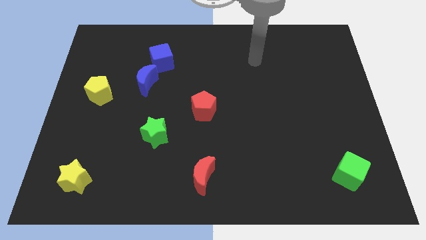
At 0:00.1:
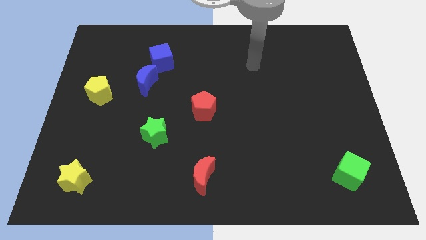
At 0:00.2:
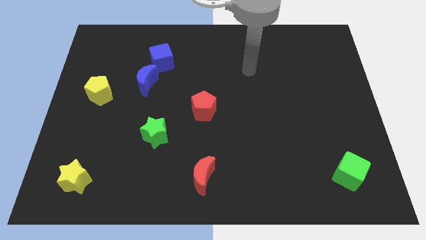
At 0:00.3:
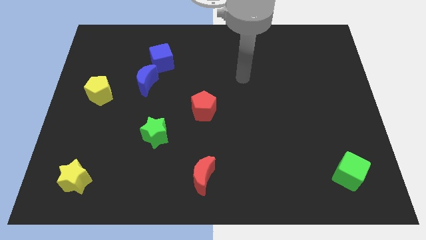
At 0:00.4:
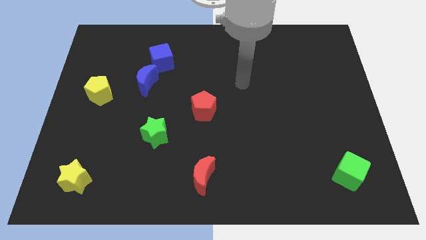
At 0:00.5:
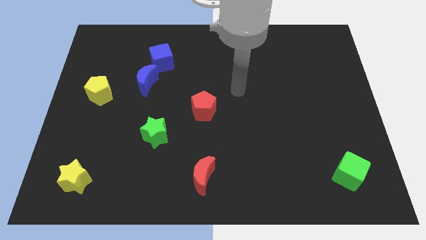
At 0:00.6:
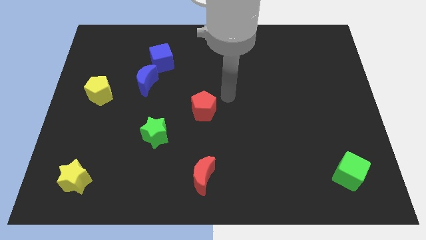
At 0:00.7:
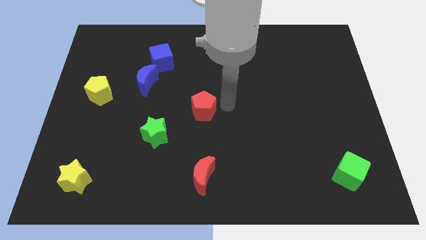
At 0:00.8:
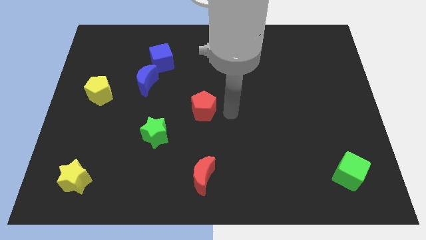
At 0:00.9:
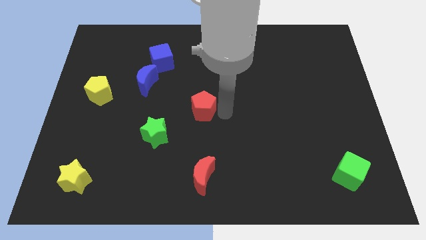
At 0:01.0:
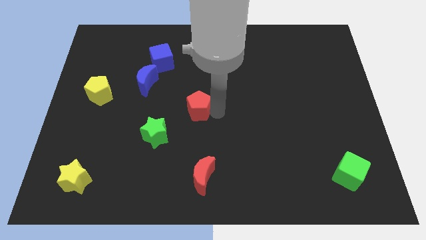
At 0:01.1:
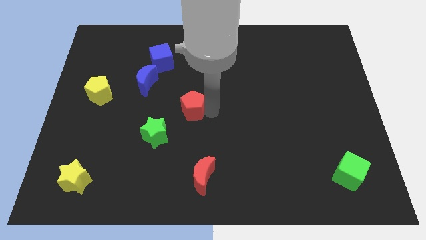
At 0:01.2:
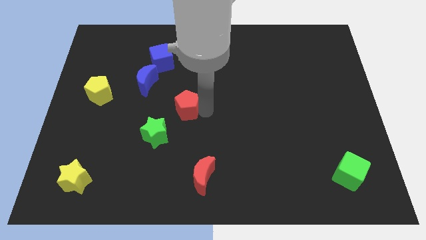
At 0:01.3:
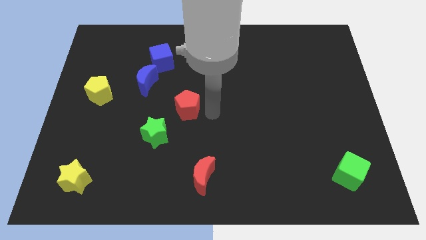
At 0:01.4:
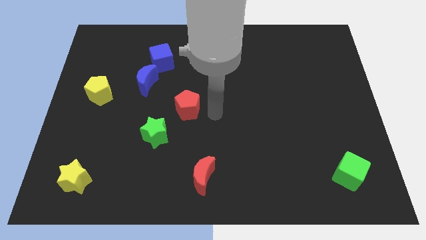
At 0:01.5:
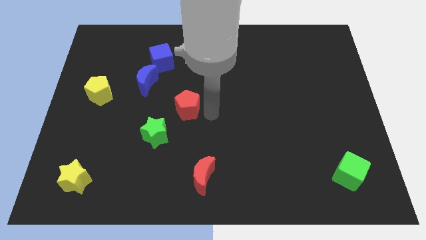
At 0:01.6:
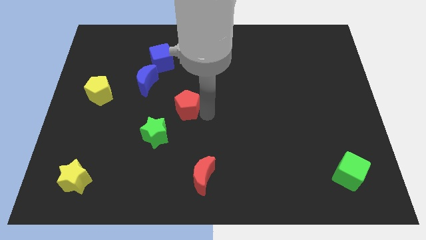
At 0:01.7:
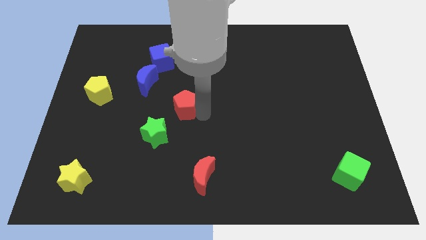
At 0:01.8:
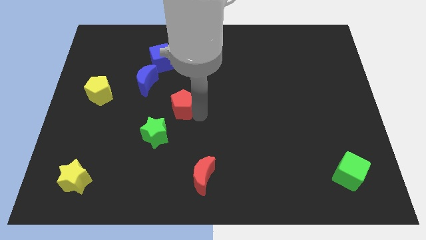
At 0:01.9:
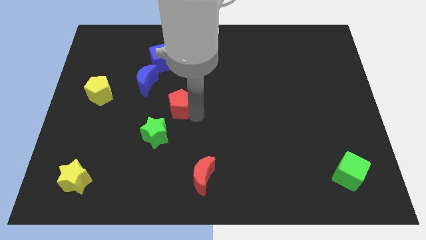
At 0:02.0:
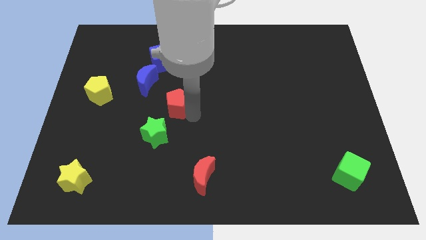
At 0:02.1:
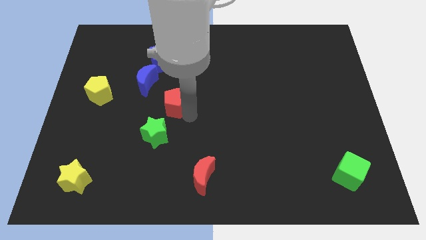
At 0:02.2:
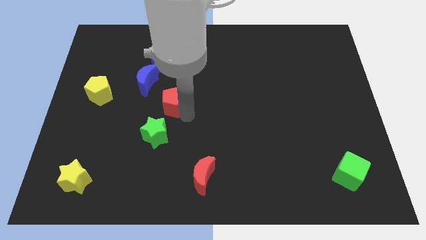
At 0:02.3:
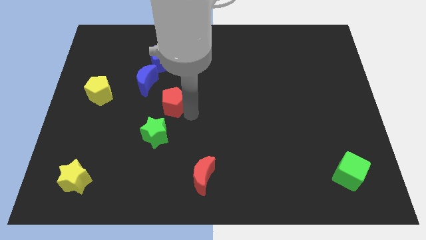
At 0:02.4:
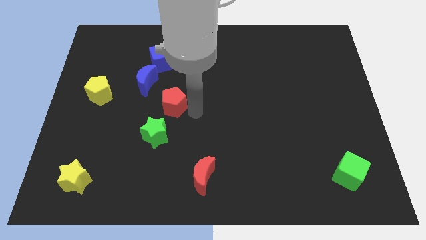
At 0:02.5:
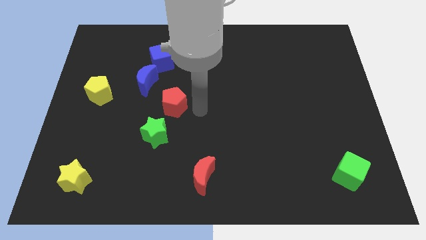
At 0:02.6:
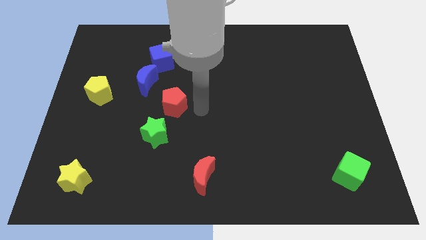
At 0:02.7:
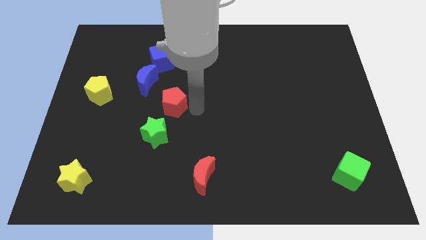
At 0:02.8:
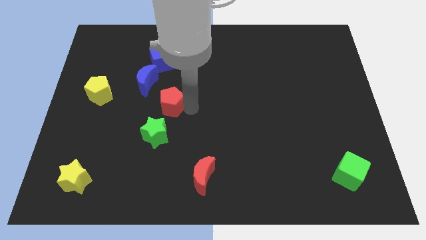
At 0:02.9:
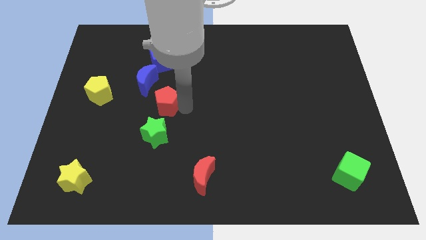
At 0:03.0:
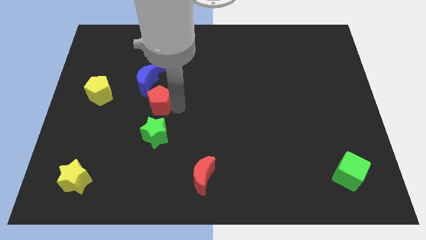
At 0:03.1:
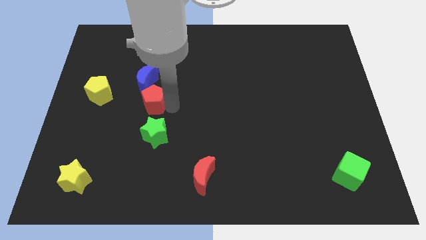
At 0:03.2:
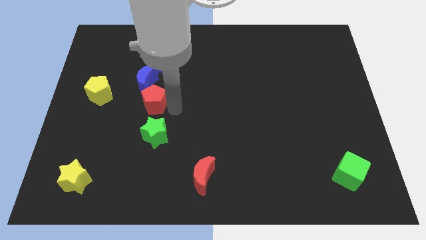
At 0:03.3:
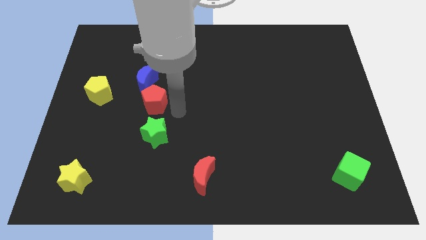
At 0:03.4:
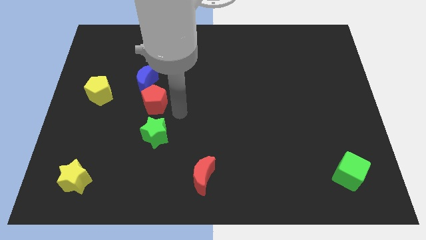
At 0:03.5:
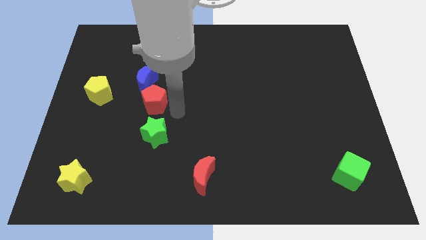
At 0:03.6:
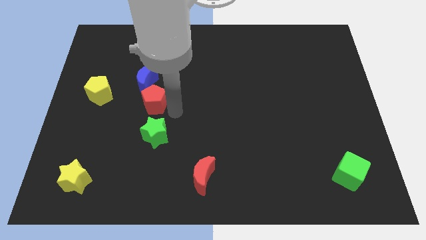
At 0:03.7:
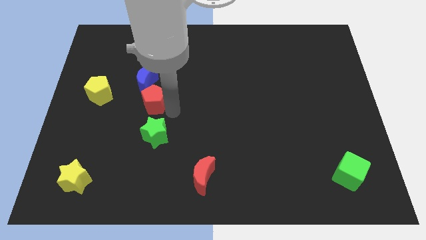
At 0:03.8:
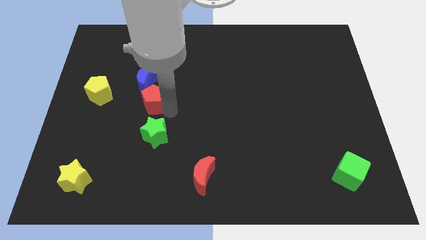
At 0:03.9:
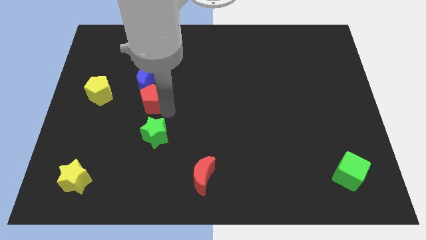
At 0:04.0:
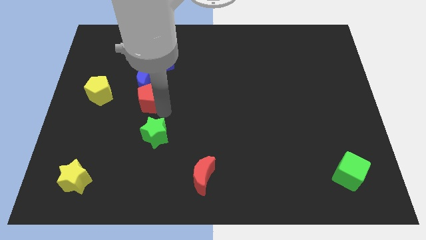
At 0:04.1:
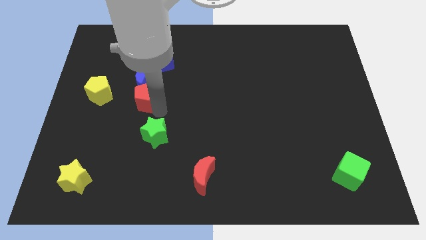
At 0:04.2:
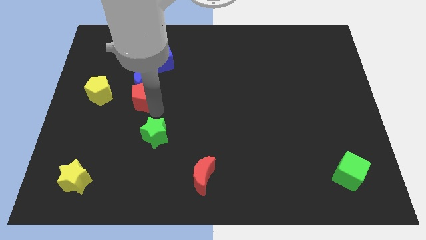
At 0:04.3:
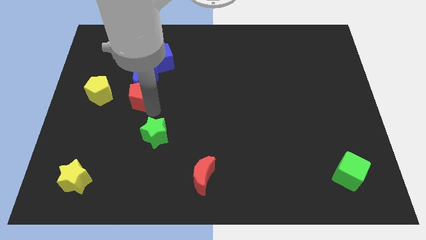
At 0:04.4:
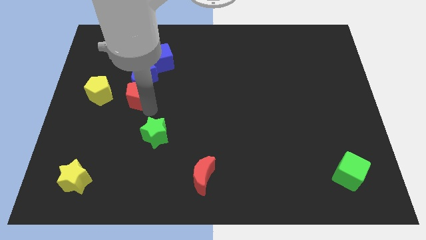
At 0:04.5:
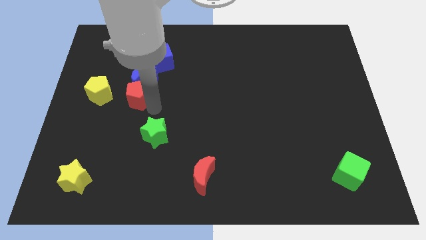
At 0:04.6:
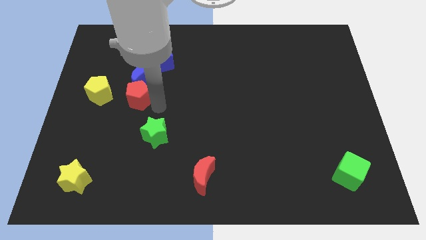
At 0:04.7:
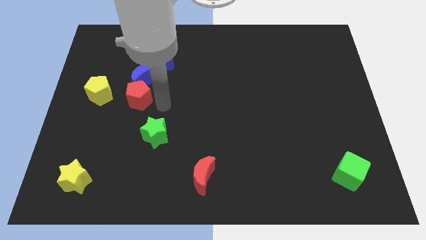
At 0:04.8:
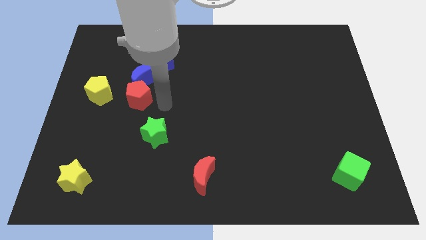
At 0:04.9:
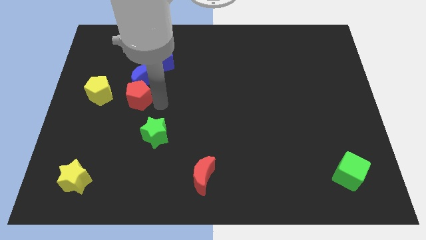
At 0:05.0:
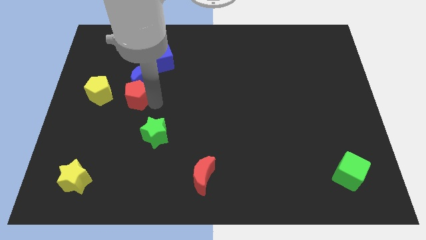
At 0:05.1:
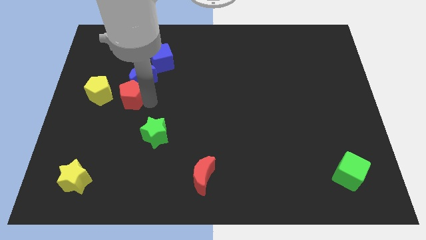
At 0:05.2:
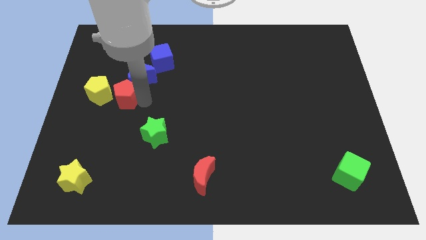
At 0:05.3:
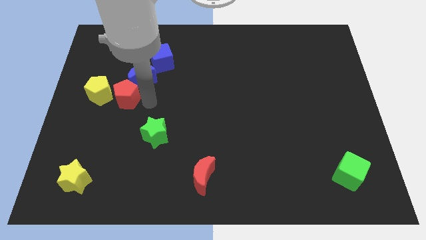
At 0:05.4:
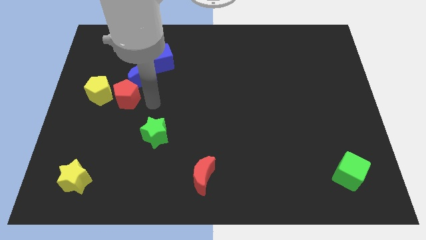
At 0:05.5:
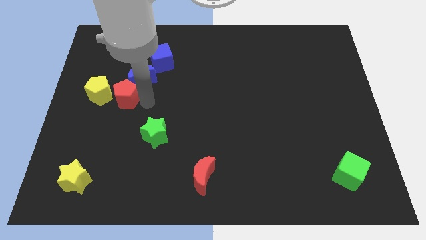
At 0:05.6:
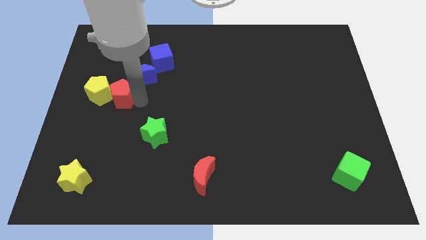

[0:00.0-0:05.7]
put the red pentagon to the yellow pentagon

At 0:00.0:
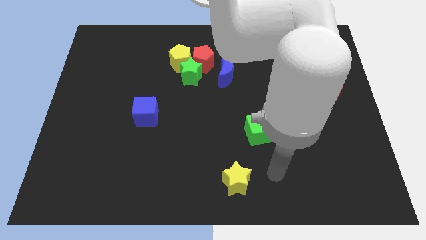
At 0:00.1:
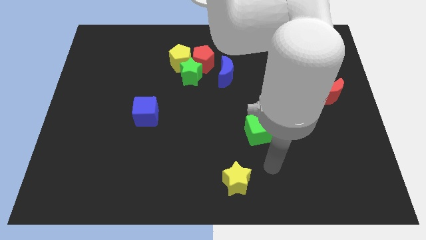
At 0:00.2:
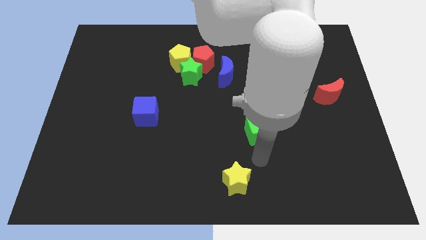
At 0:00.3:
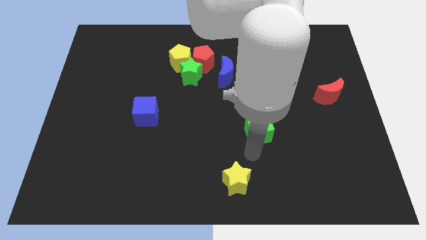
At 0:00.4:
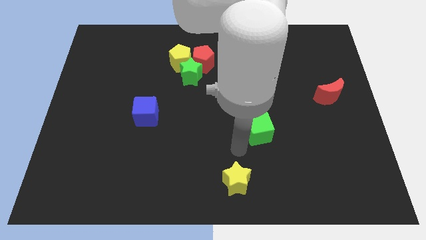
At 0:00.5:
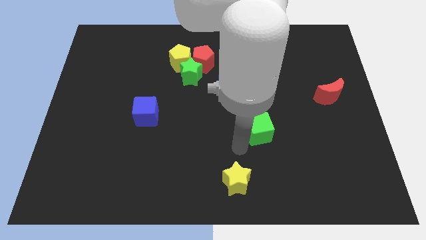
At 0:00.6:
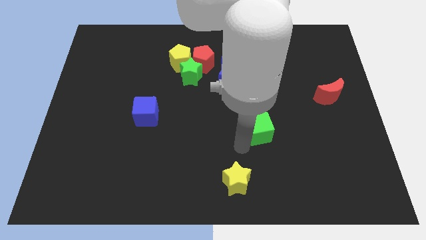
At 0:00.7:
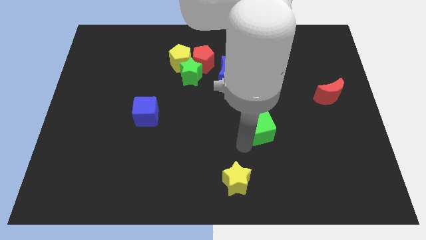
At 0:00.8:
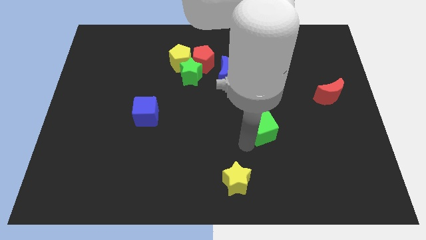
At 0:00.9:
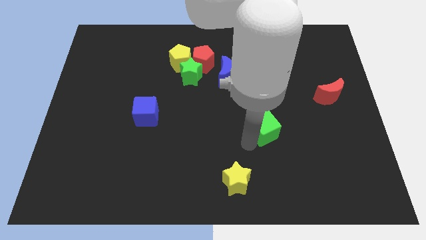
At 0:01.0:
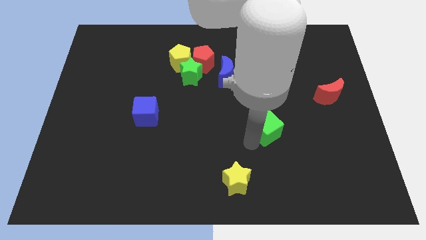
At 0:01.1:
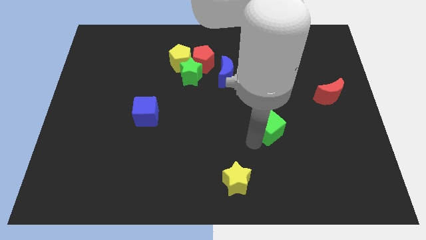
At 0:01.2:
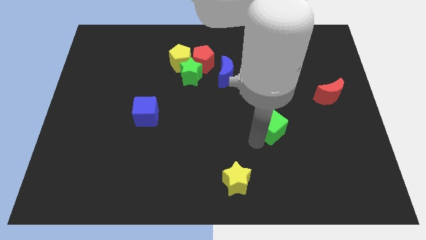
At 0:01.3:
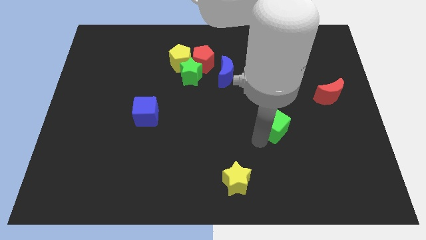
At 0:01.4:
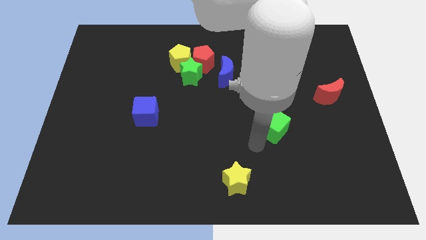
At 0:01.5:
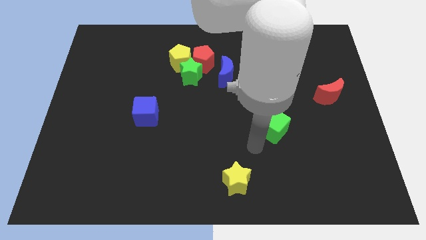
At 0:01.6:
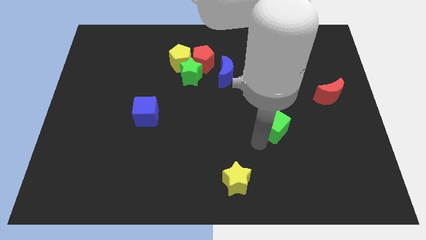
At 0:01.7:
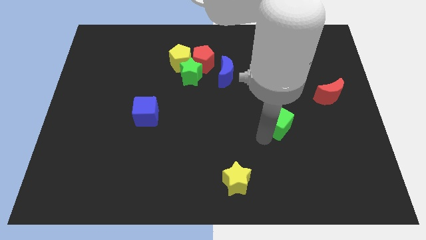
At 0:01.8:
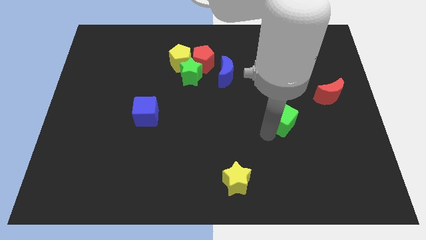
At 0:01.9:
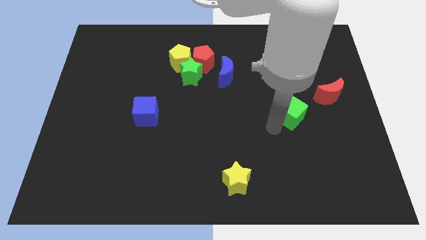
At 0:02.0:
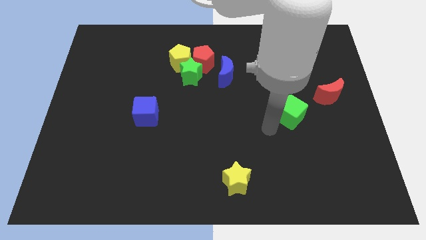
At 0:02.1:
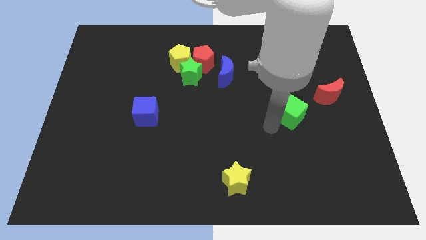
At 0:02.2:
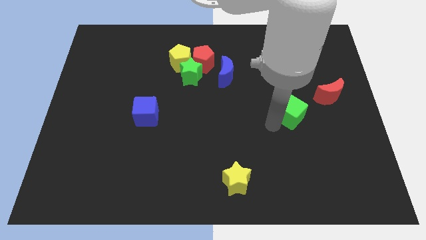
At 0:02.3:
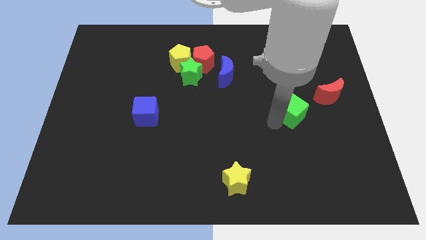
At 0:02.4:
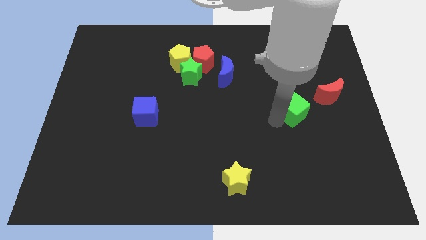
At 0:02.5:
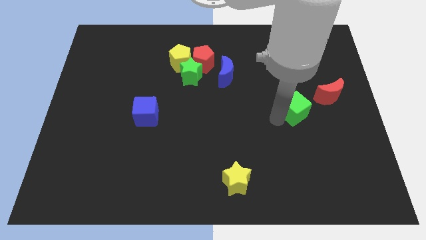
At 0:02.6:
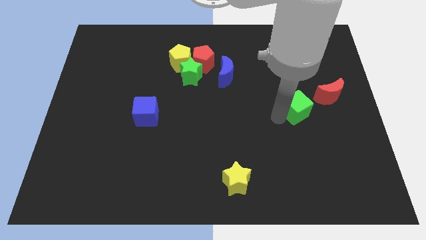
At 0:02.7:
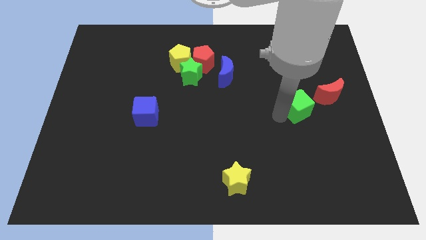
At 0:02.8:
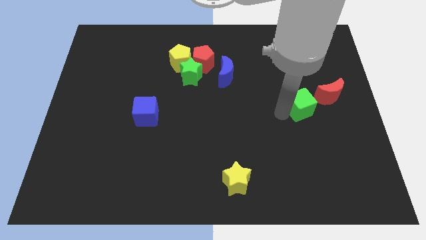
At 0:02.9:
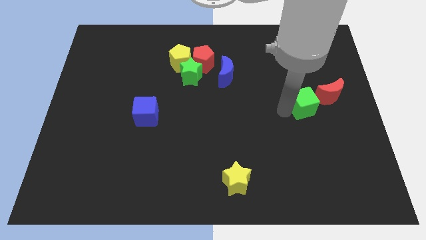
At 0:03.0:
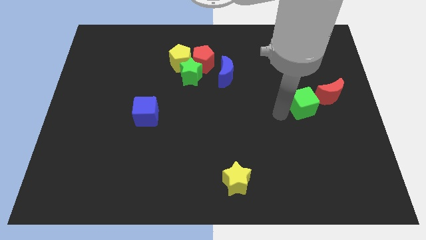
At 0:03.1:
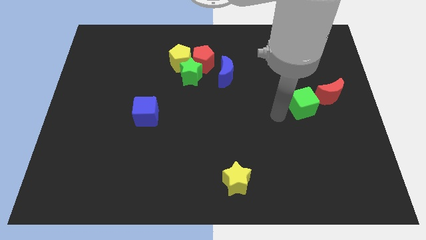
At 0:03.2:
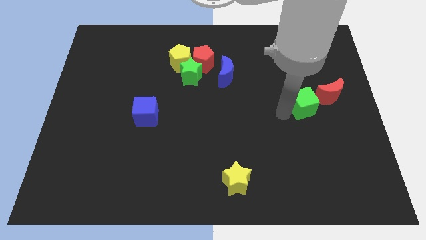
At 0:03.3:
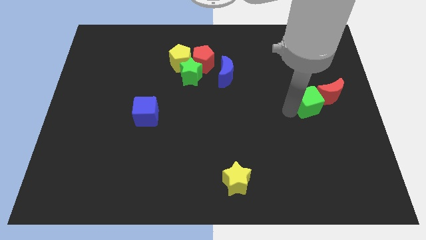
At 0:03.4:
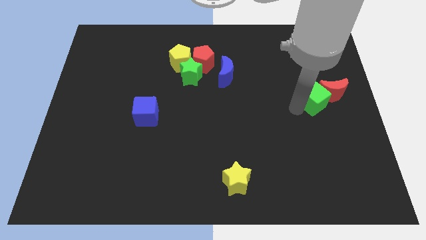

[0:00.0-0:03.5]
push the green cube to the red moon
